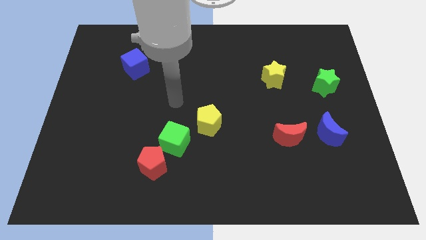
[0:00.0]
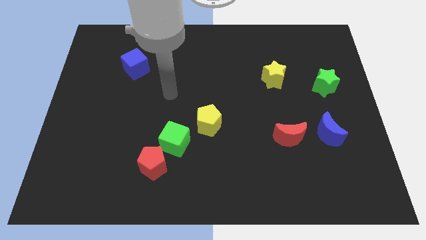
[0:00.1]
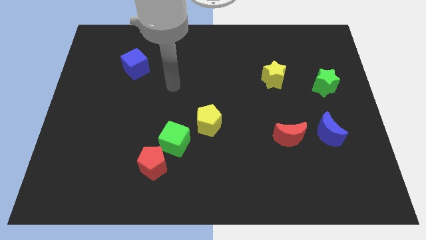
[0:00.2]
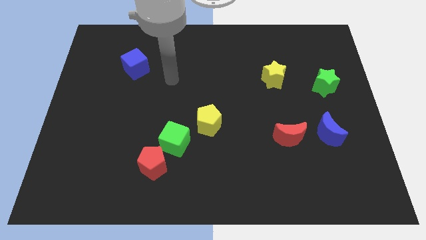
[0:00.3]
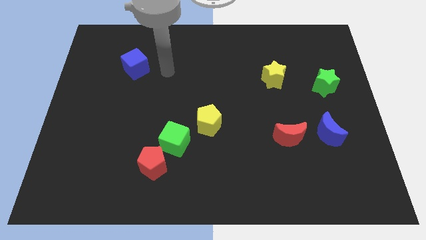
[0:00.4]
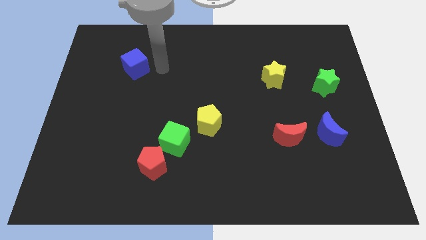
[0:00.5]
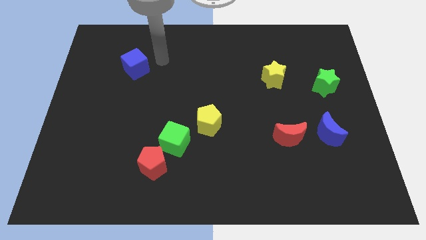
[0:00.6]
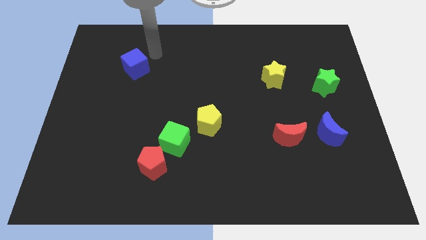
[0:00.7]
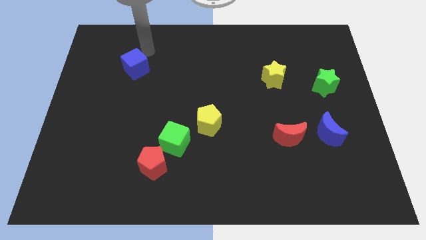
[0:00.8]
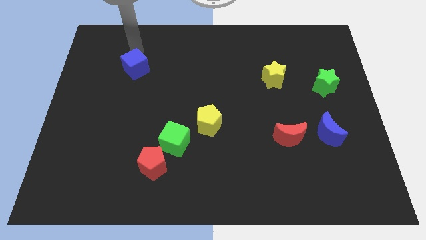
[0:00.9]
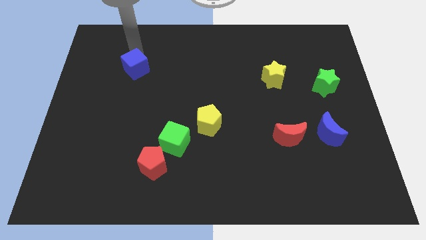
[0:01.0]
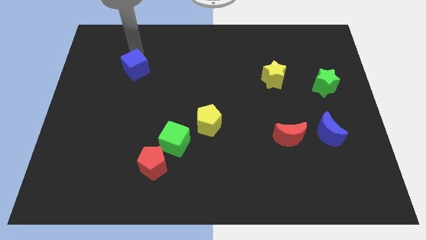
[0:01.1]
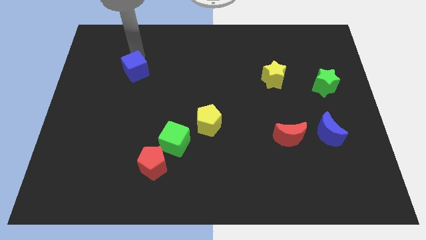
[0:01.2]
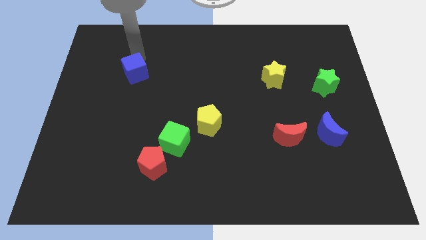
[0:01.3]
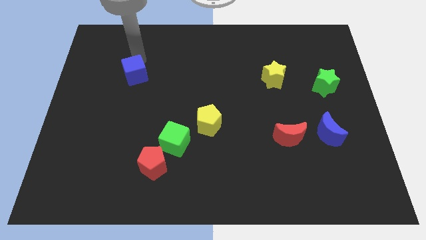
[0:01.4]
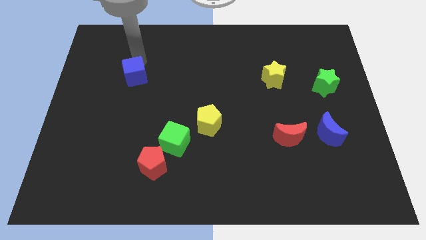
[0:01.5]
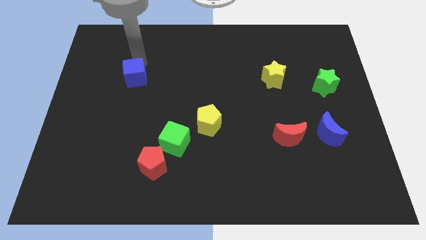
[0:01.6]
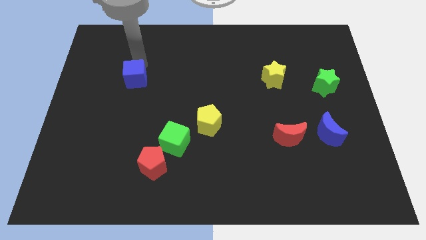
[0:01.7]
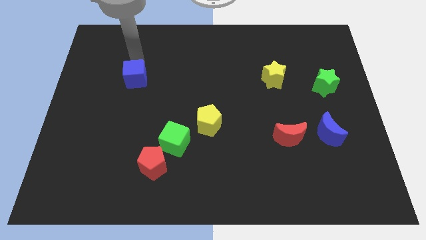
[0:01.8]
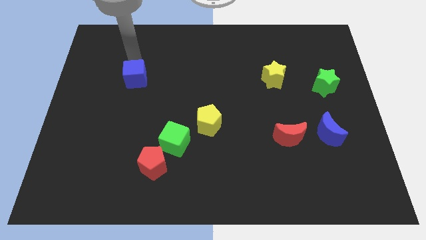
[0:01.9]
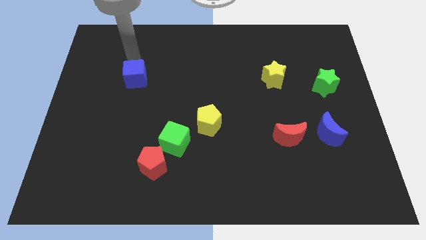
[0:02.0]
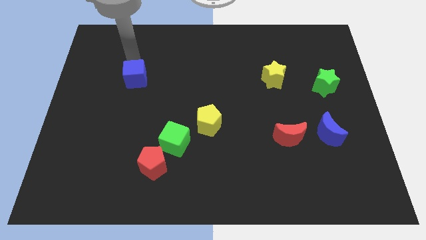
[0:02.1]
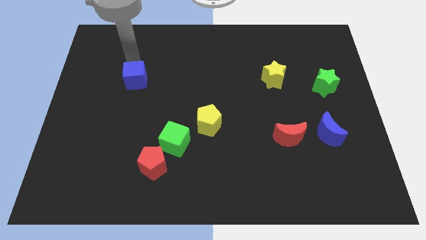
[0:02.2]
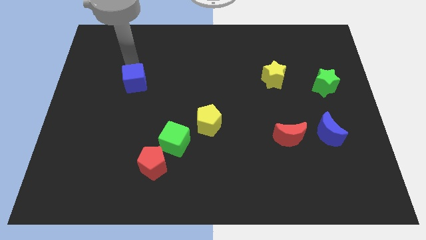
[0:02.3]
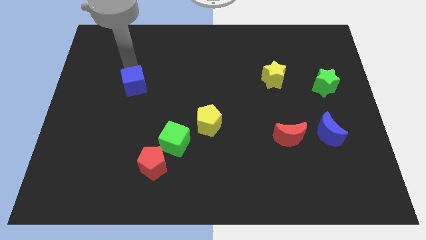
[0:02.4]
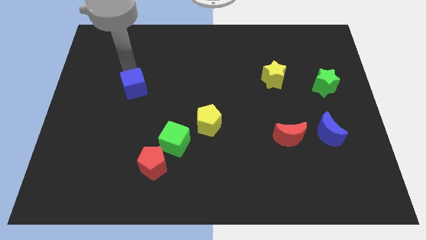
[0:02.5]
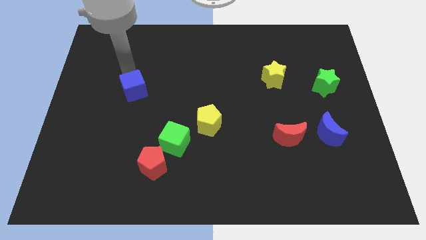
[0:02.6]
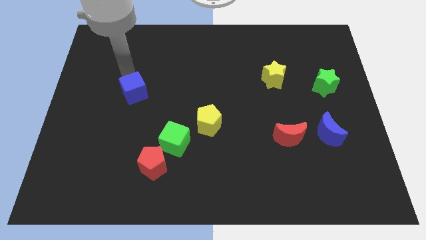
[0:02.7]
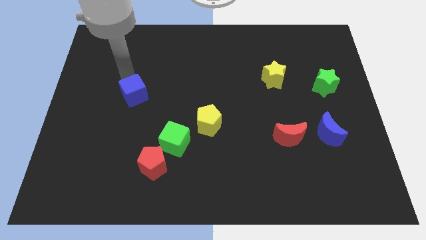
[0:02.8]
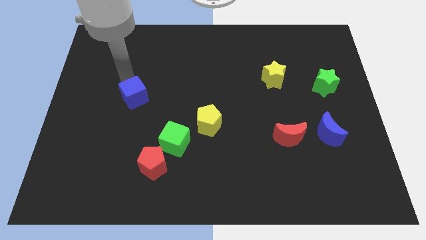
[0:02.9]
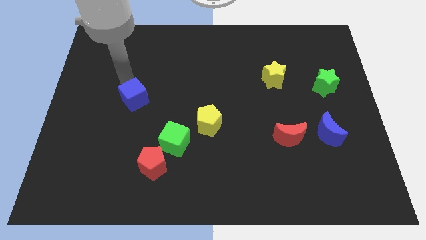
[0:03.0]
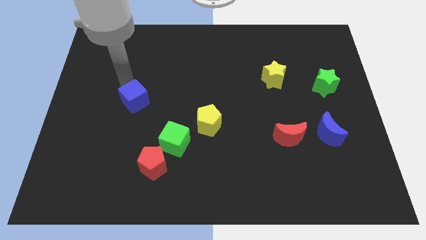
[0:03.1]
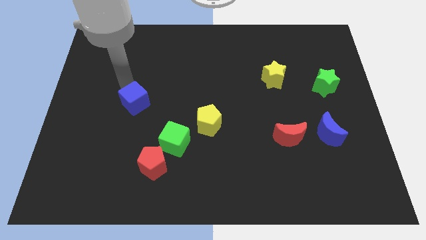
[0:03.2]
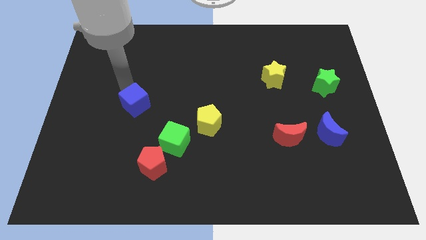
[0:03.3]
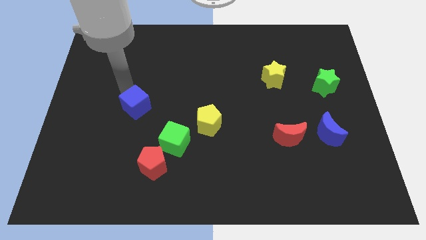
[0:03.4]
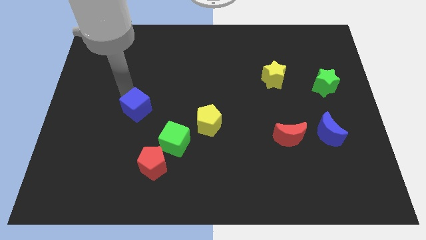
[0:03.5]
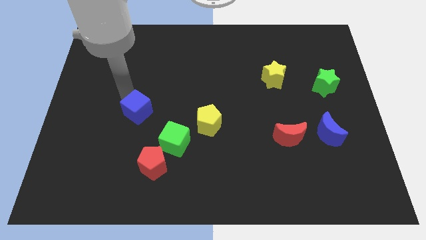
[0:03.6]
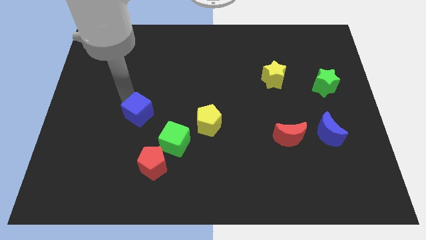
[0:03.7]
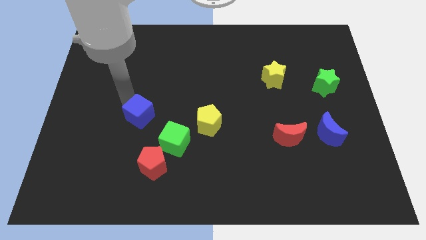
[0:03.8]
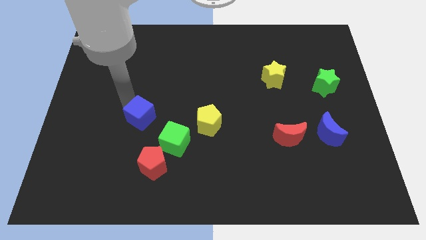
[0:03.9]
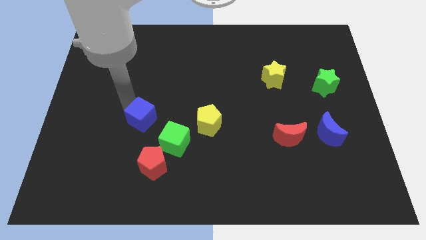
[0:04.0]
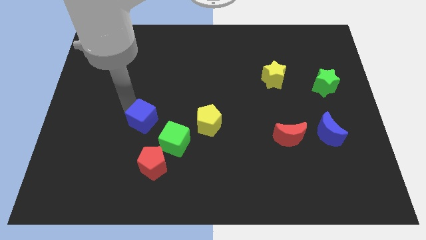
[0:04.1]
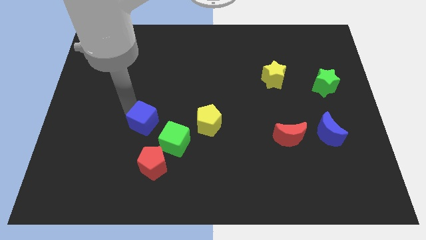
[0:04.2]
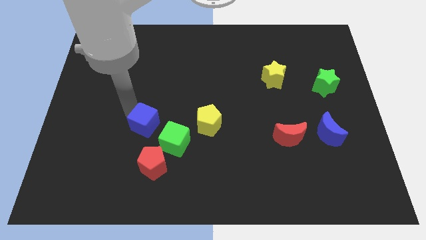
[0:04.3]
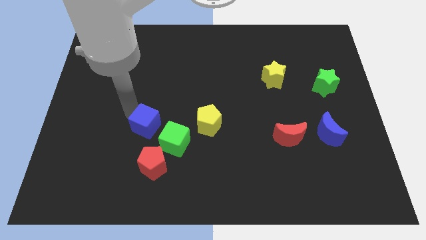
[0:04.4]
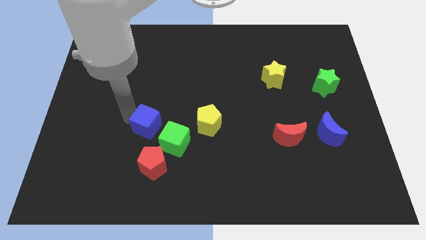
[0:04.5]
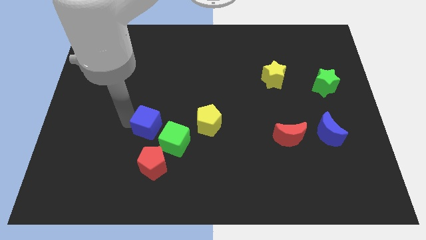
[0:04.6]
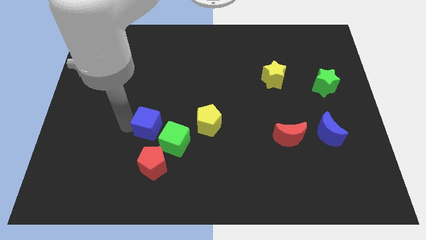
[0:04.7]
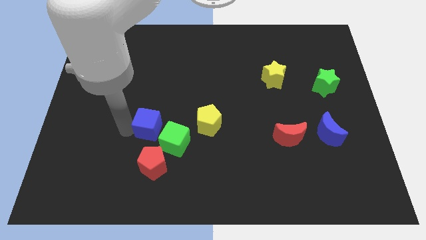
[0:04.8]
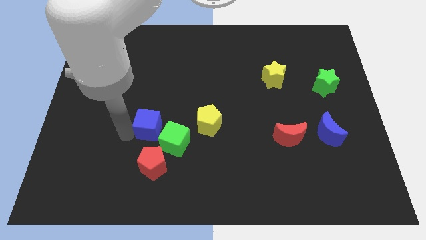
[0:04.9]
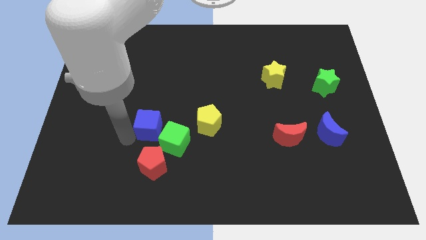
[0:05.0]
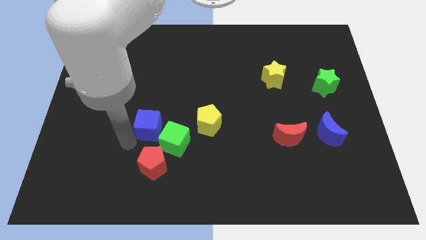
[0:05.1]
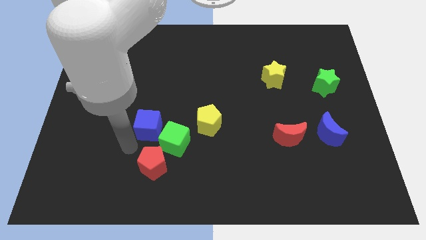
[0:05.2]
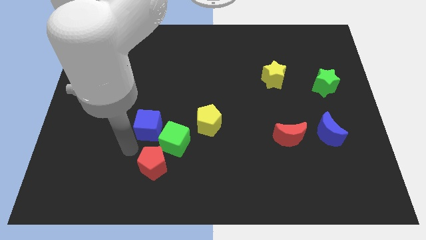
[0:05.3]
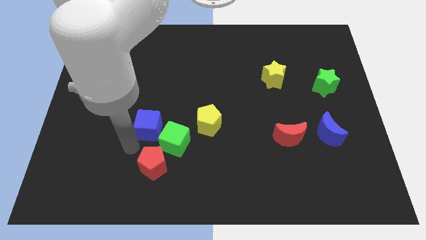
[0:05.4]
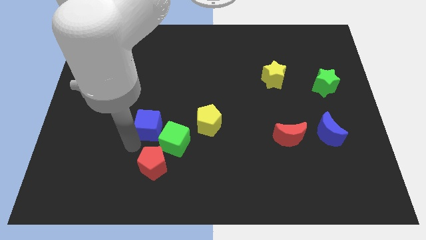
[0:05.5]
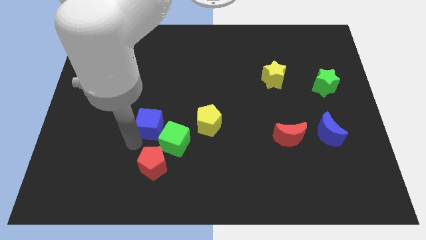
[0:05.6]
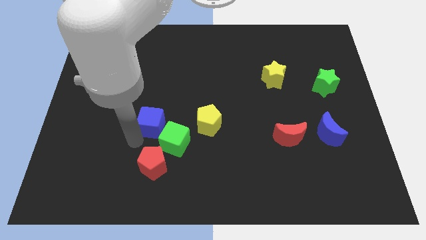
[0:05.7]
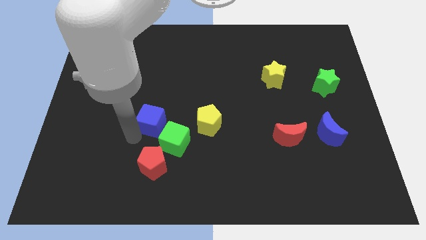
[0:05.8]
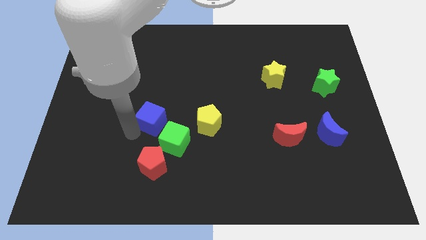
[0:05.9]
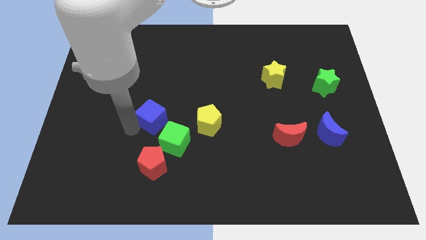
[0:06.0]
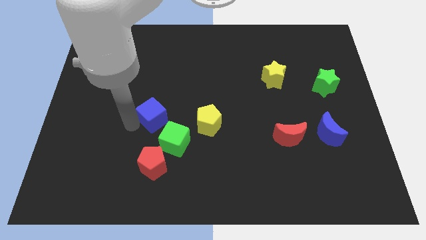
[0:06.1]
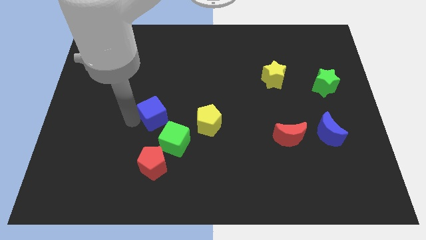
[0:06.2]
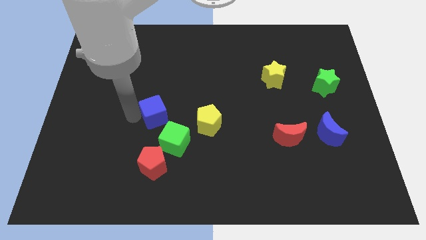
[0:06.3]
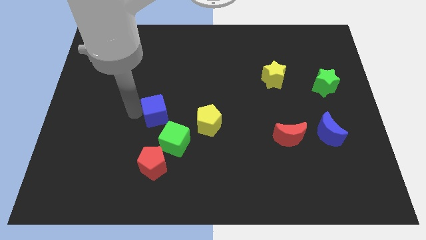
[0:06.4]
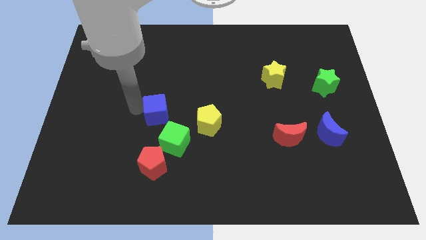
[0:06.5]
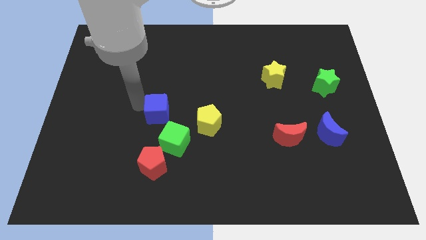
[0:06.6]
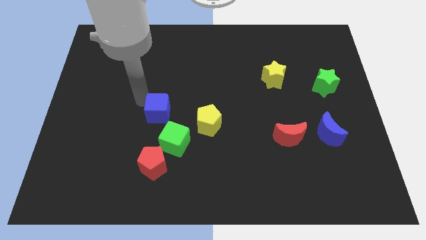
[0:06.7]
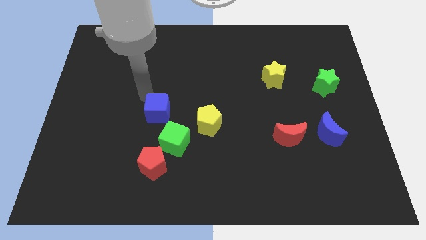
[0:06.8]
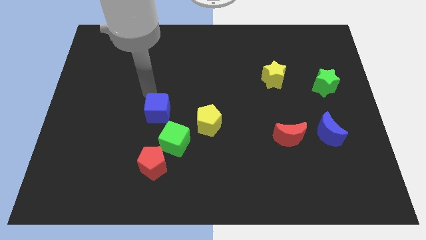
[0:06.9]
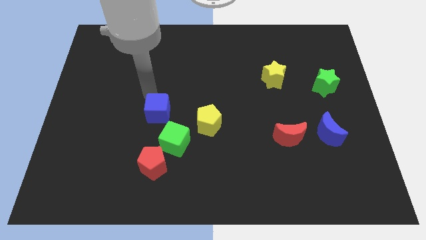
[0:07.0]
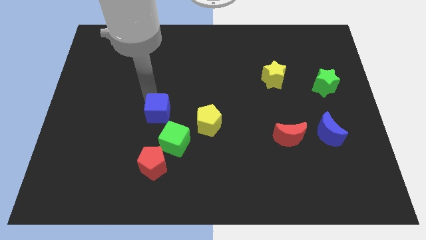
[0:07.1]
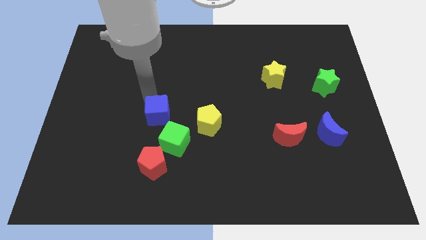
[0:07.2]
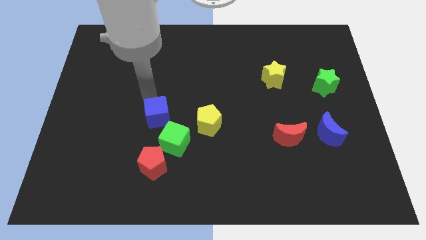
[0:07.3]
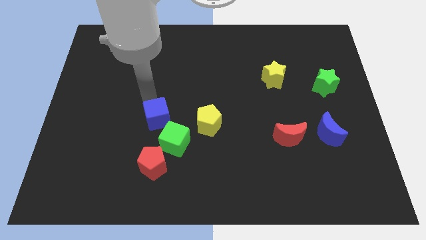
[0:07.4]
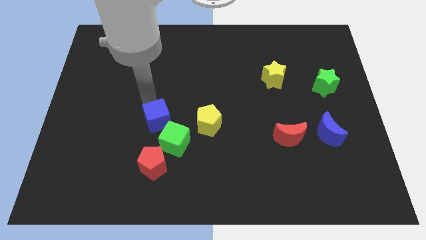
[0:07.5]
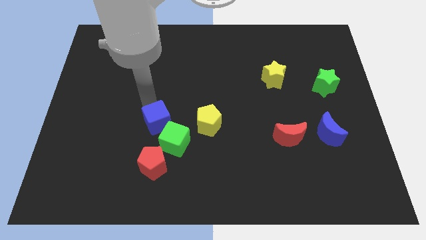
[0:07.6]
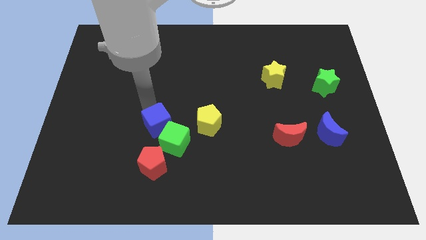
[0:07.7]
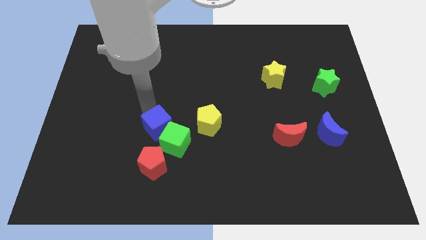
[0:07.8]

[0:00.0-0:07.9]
slide the blue cube close to the green cube
